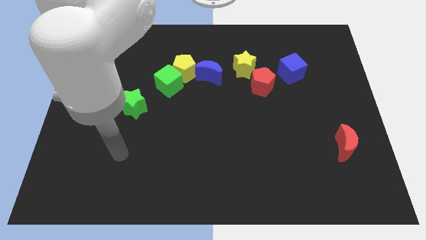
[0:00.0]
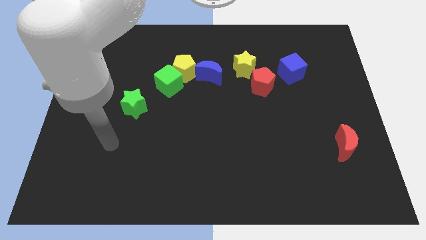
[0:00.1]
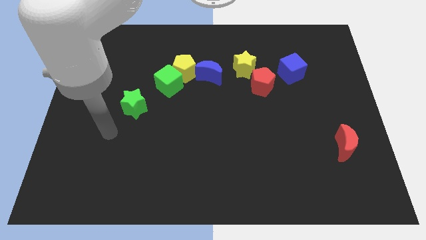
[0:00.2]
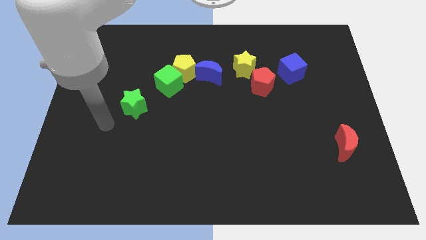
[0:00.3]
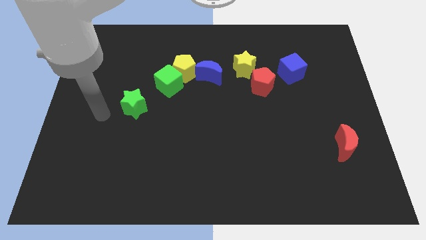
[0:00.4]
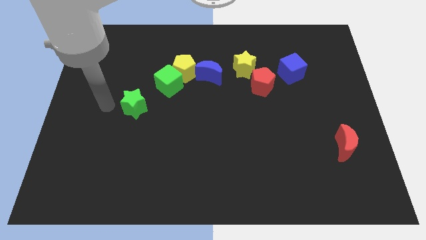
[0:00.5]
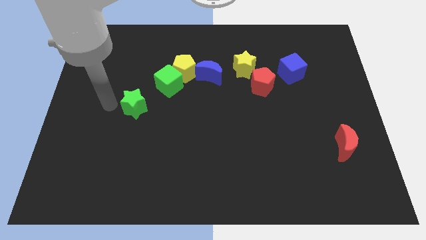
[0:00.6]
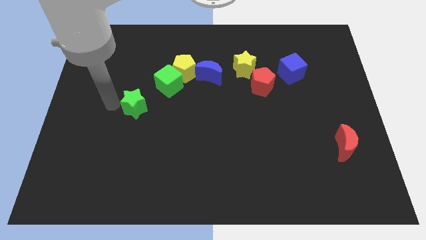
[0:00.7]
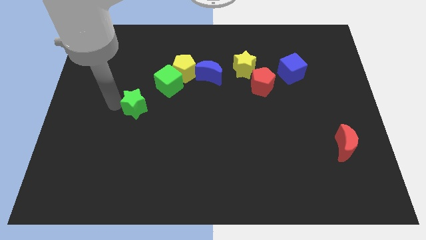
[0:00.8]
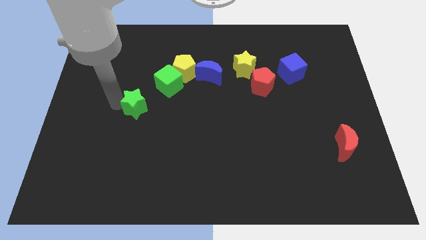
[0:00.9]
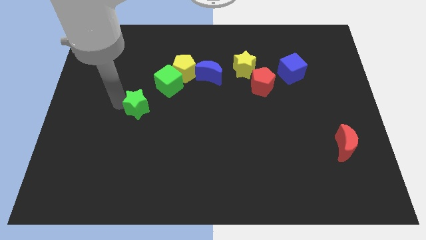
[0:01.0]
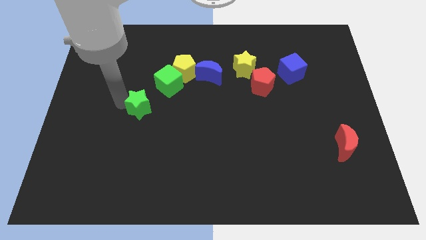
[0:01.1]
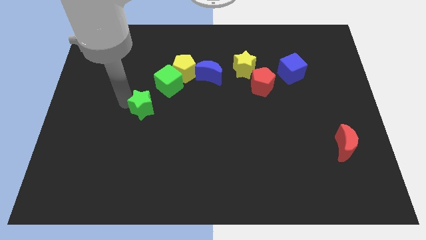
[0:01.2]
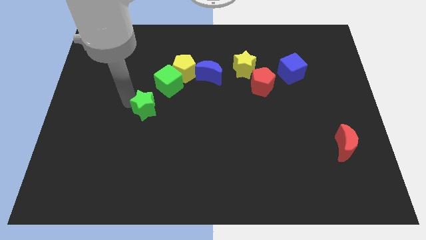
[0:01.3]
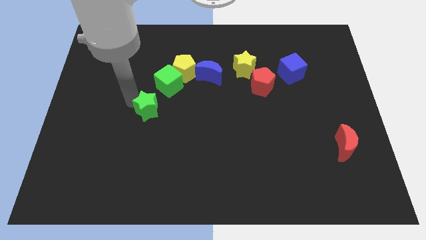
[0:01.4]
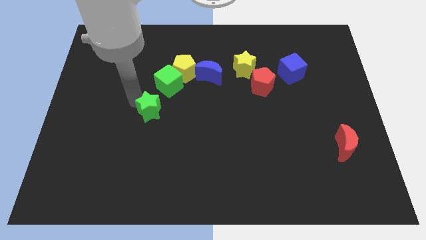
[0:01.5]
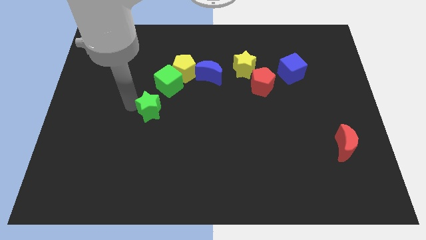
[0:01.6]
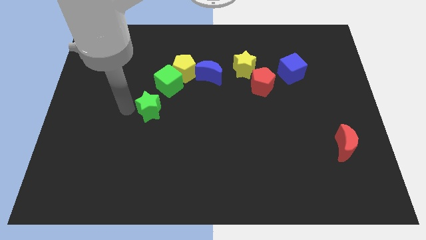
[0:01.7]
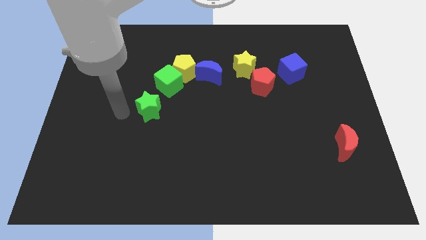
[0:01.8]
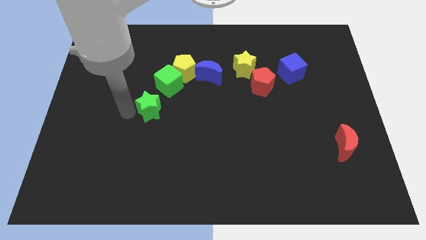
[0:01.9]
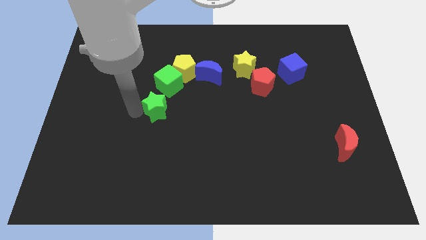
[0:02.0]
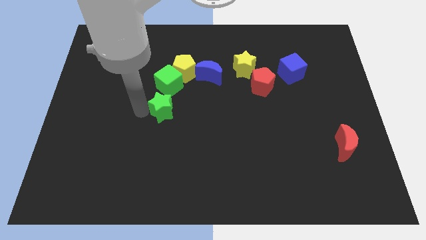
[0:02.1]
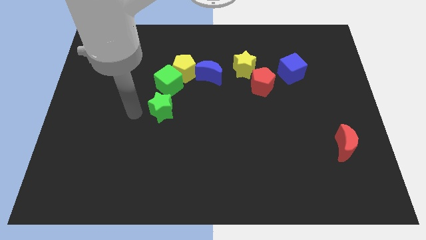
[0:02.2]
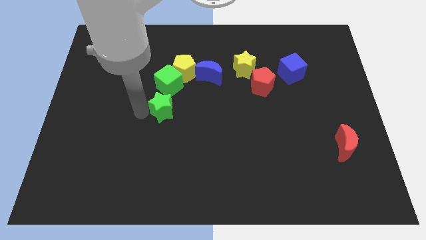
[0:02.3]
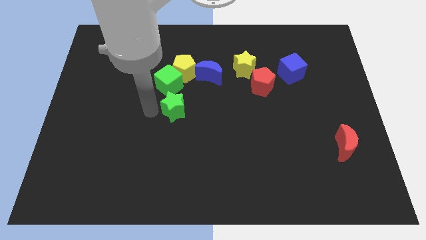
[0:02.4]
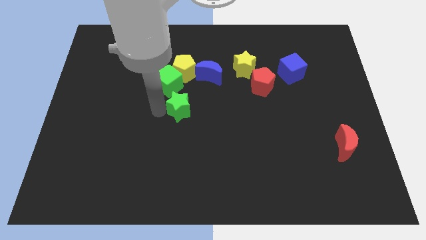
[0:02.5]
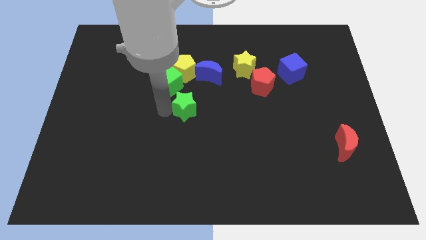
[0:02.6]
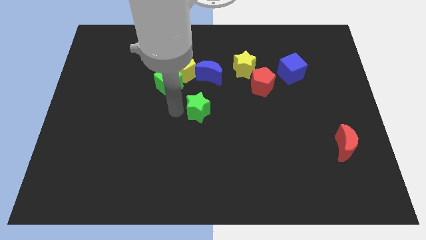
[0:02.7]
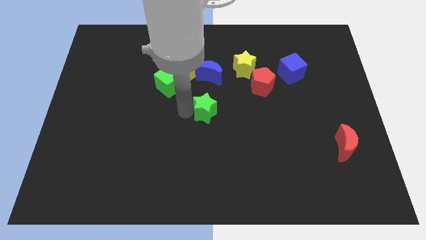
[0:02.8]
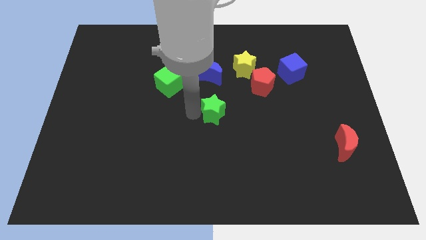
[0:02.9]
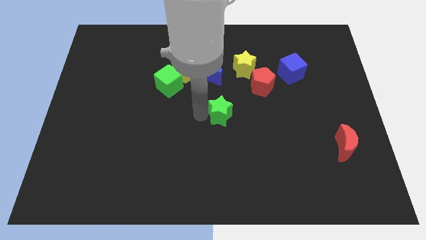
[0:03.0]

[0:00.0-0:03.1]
slide the green star right

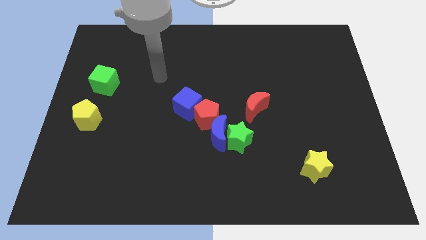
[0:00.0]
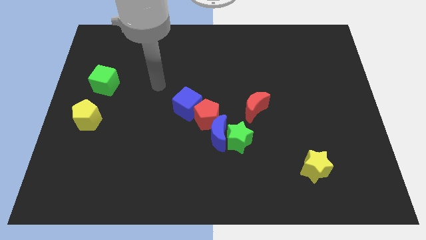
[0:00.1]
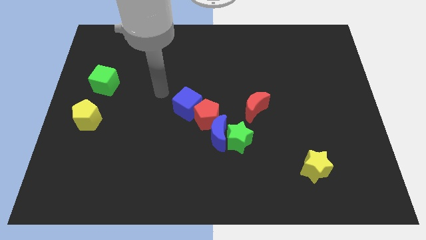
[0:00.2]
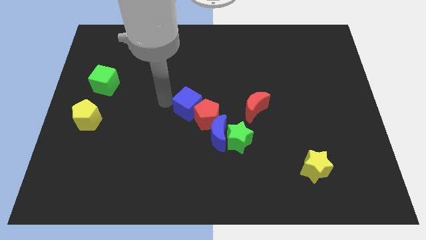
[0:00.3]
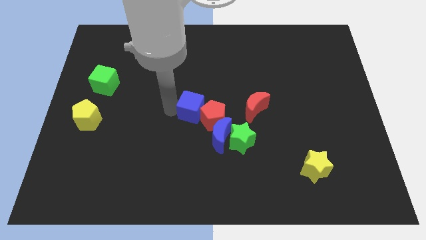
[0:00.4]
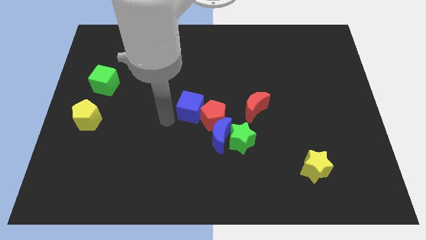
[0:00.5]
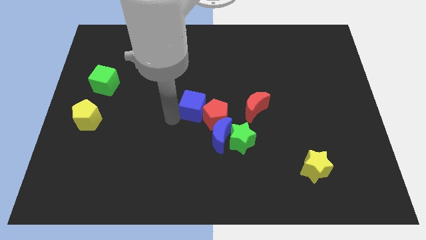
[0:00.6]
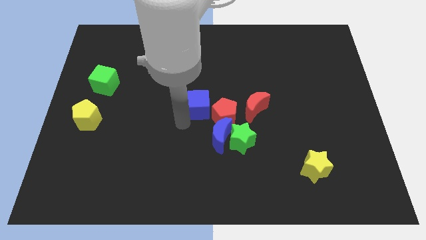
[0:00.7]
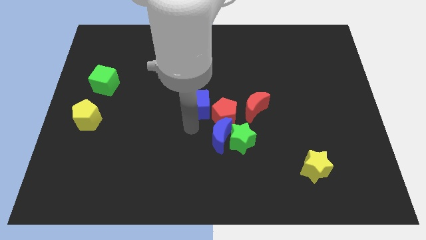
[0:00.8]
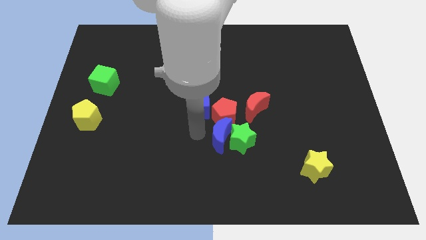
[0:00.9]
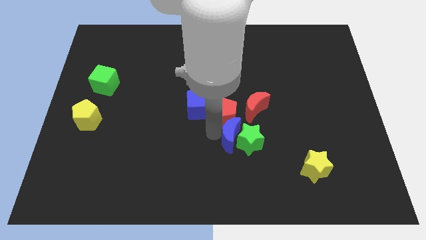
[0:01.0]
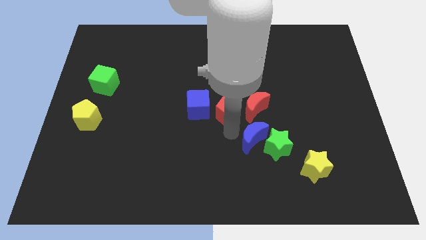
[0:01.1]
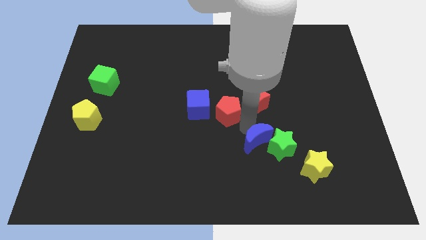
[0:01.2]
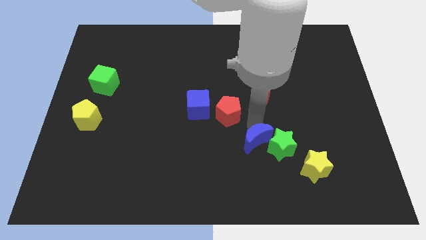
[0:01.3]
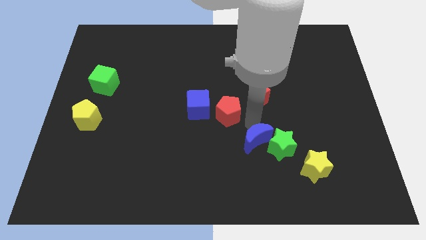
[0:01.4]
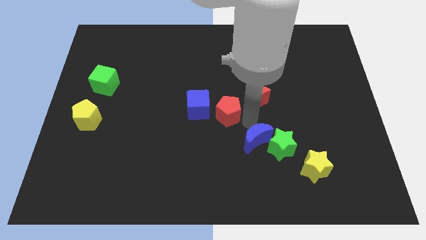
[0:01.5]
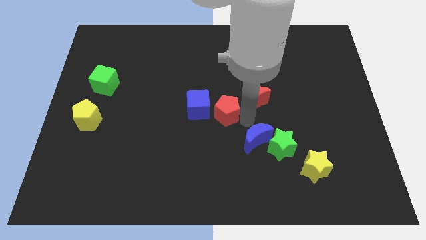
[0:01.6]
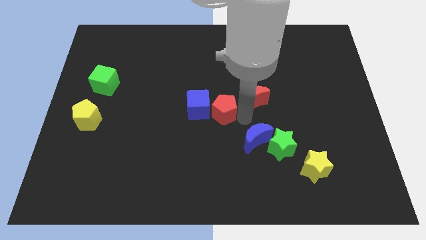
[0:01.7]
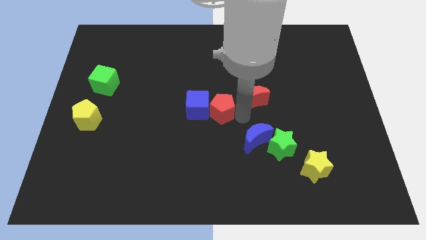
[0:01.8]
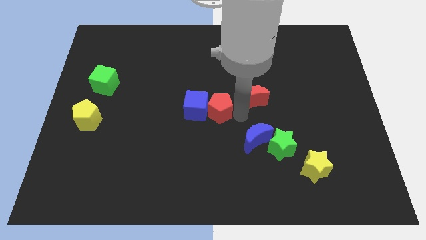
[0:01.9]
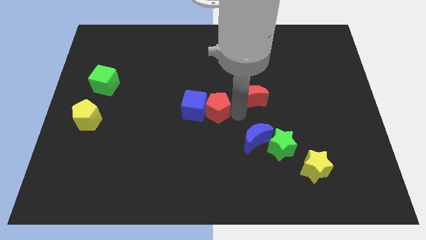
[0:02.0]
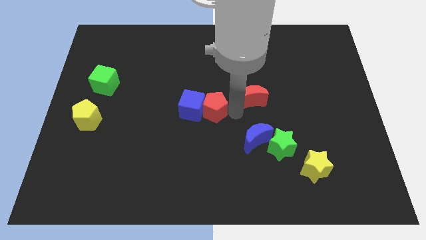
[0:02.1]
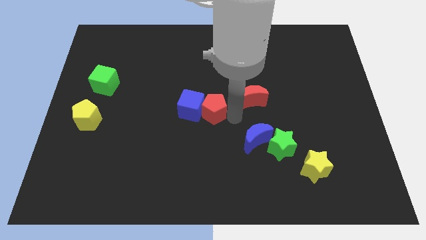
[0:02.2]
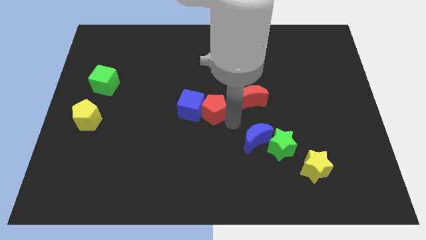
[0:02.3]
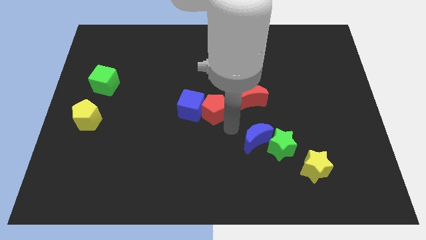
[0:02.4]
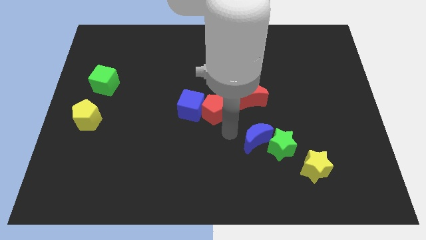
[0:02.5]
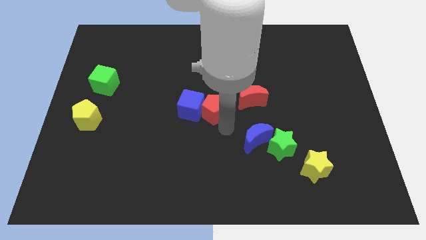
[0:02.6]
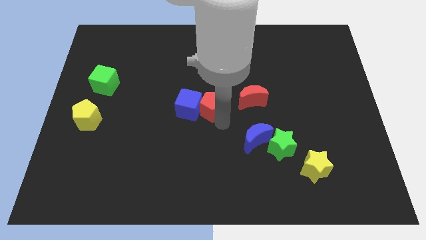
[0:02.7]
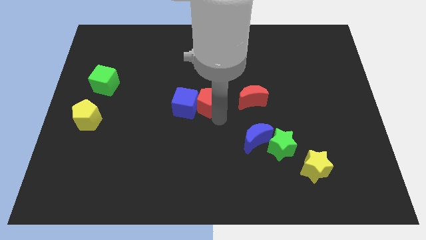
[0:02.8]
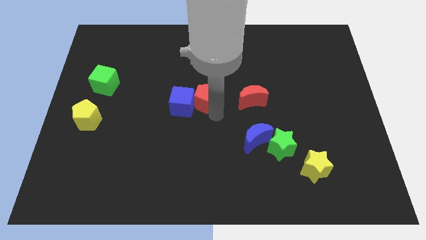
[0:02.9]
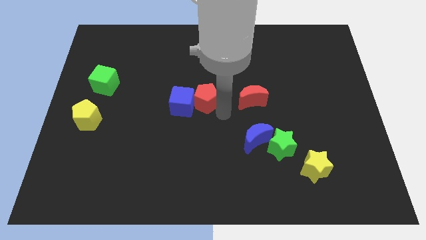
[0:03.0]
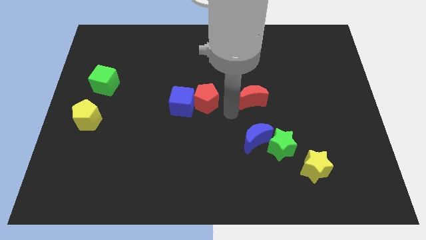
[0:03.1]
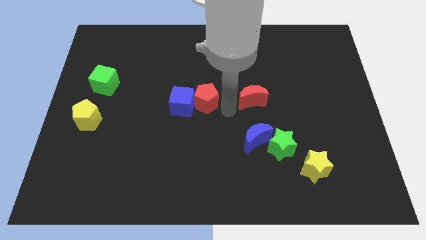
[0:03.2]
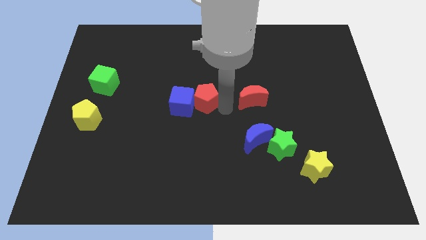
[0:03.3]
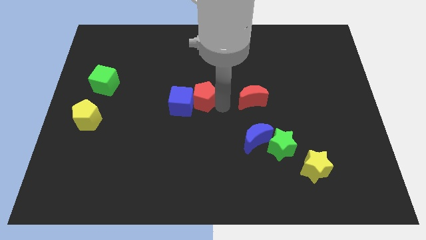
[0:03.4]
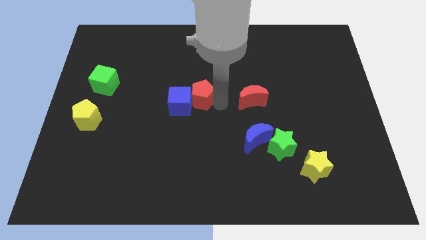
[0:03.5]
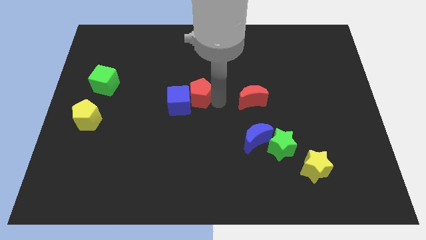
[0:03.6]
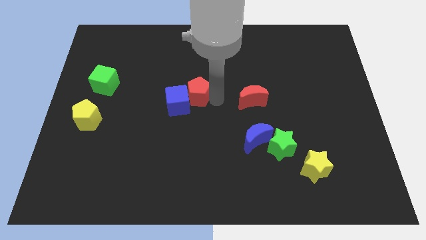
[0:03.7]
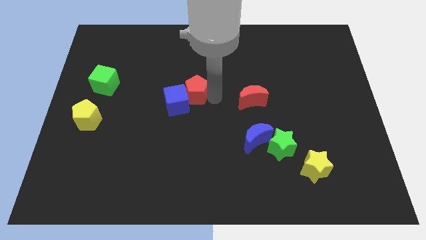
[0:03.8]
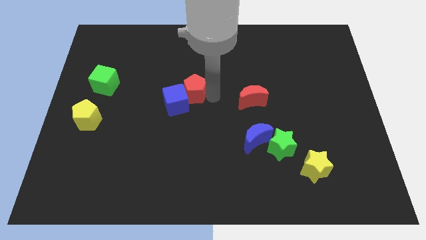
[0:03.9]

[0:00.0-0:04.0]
slightly move the red pentagon up and to the left diagonally

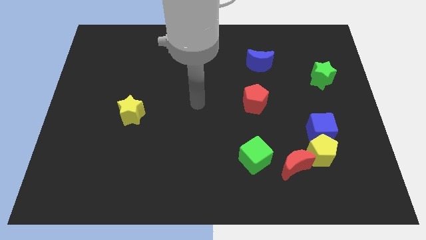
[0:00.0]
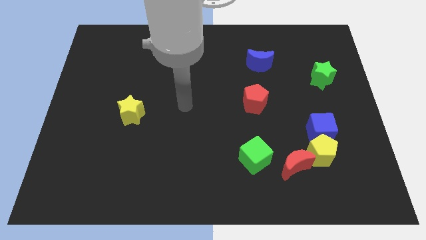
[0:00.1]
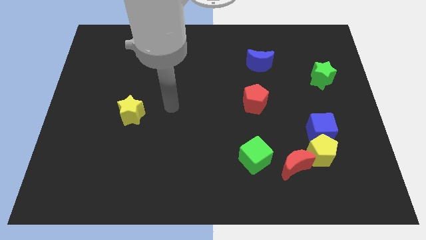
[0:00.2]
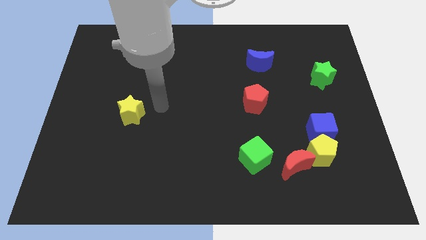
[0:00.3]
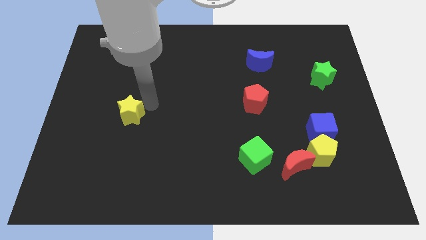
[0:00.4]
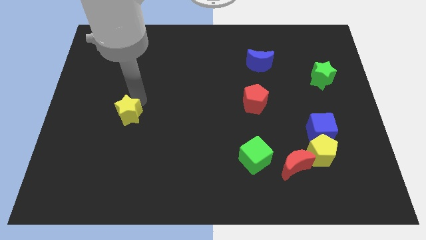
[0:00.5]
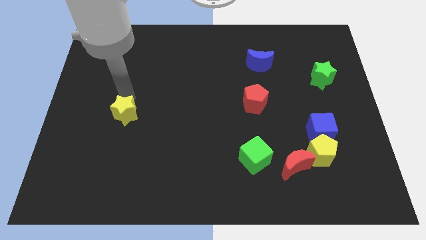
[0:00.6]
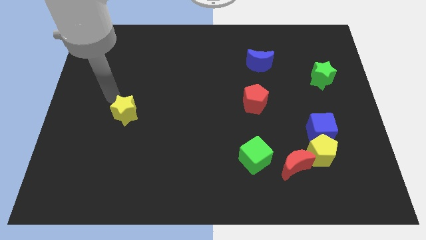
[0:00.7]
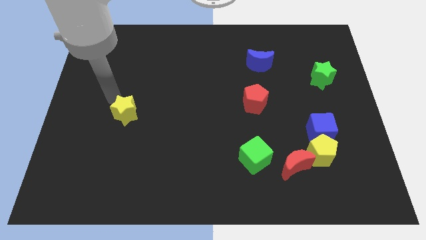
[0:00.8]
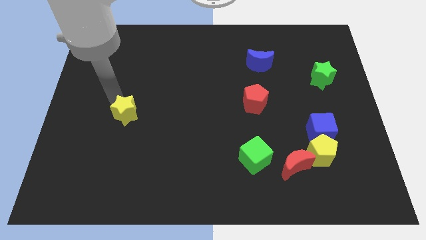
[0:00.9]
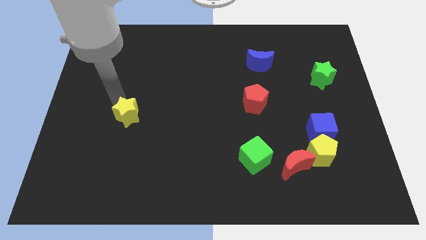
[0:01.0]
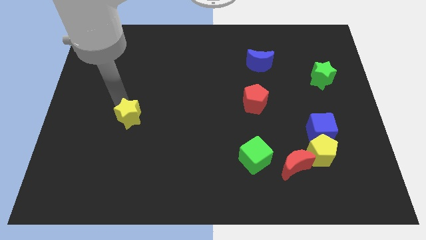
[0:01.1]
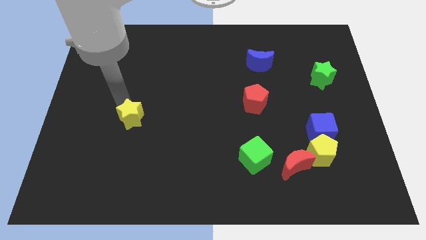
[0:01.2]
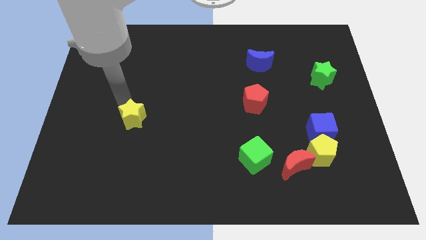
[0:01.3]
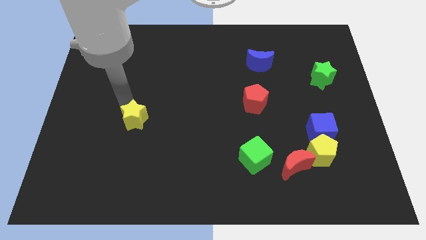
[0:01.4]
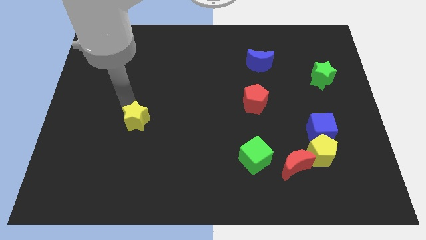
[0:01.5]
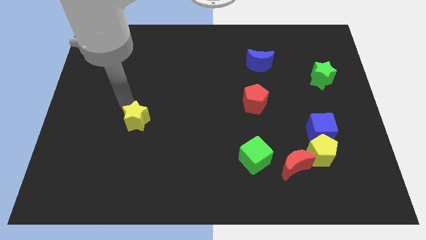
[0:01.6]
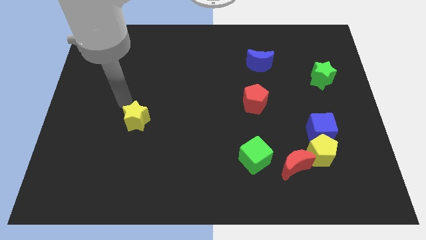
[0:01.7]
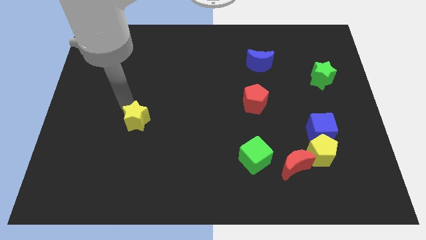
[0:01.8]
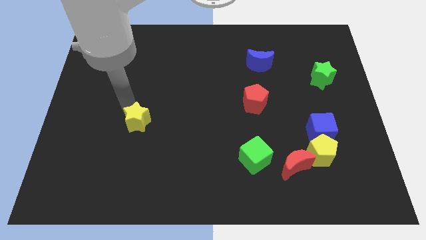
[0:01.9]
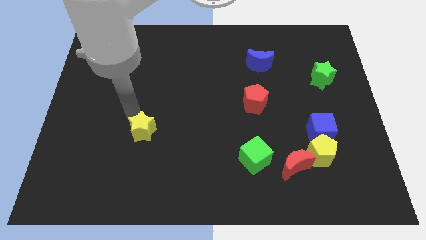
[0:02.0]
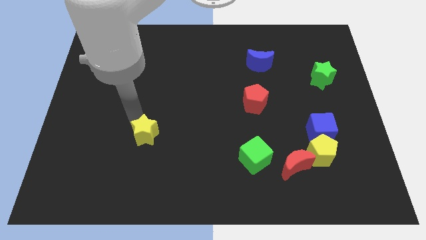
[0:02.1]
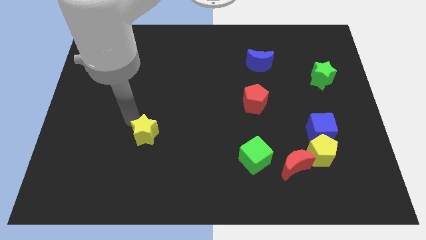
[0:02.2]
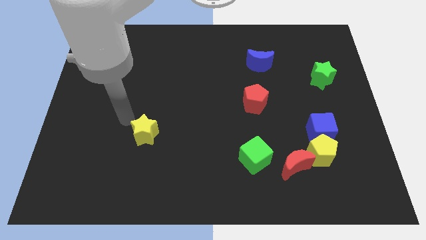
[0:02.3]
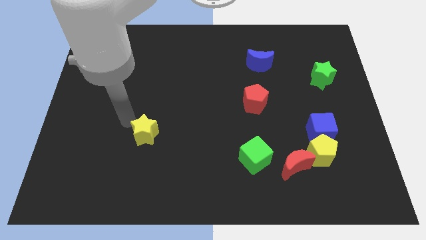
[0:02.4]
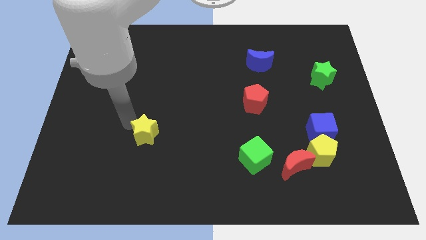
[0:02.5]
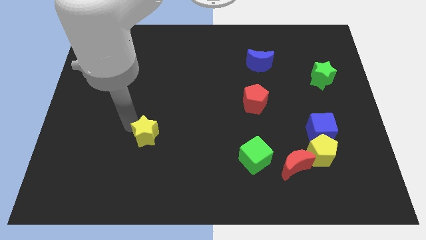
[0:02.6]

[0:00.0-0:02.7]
move the yellow star a bit down and right
